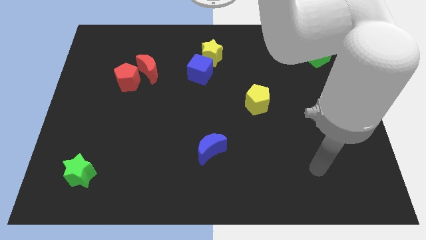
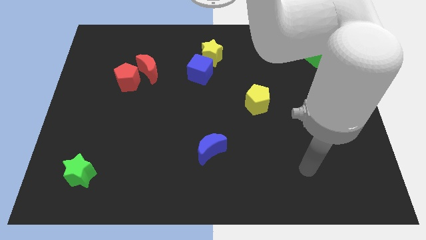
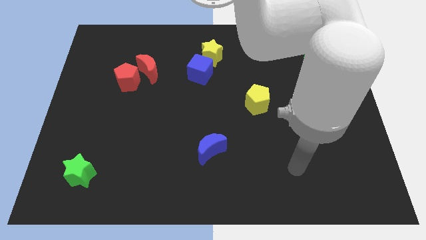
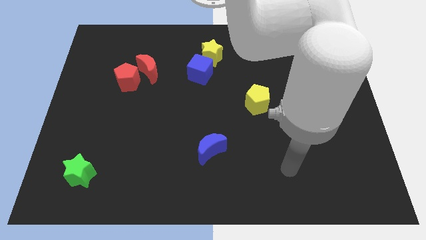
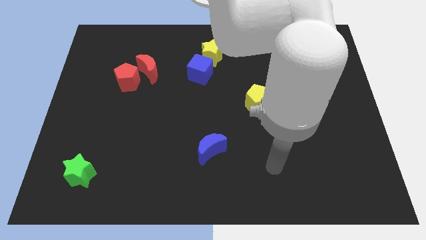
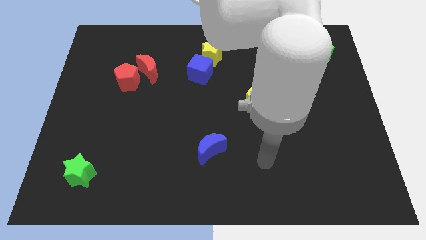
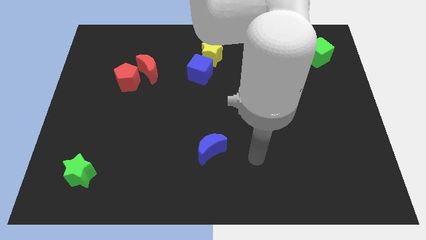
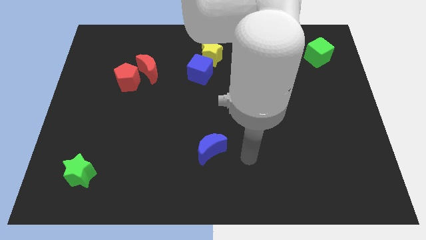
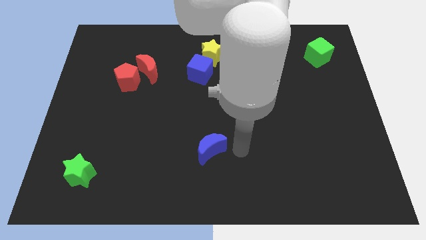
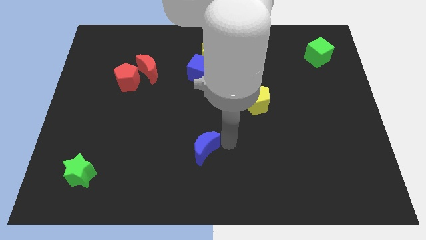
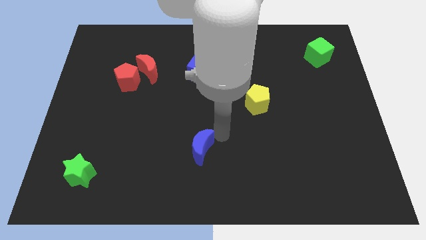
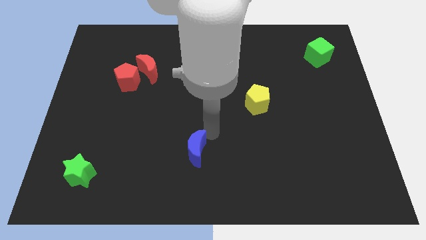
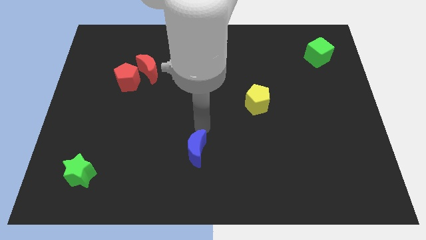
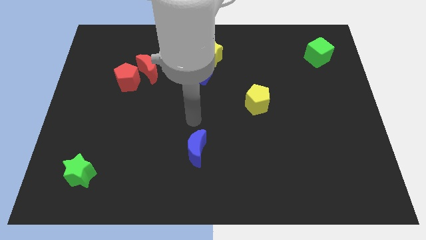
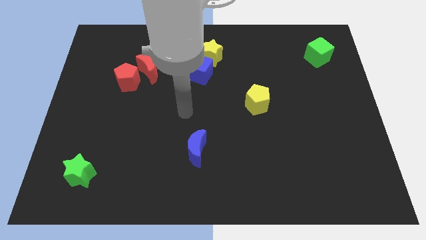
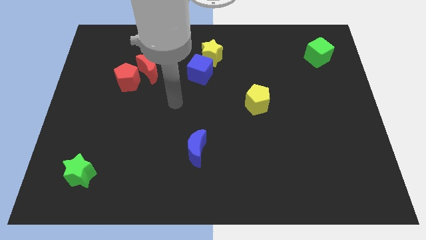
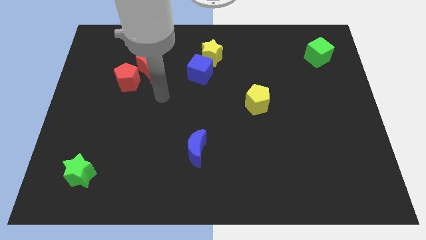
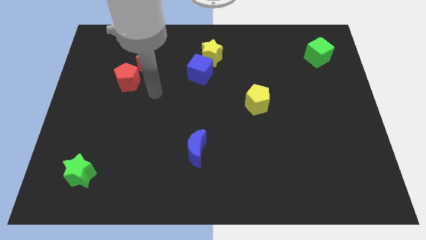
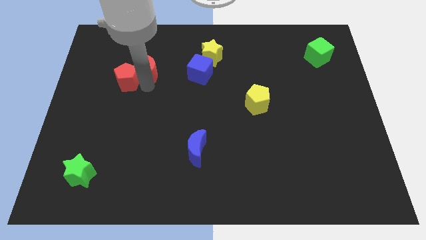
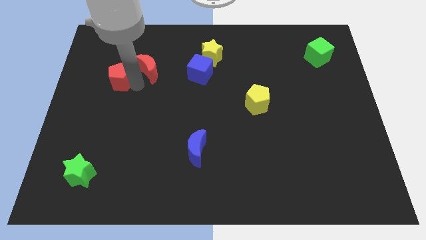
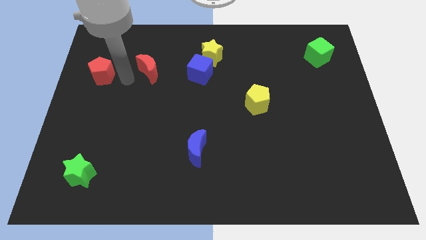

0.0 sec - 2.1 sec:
move the red moon away from the red pentagon

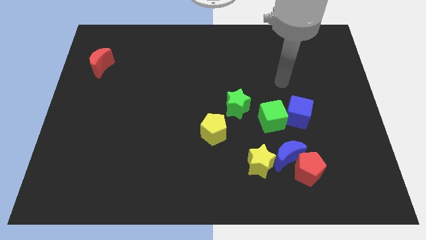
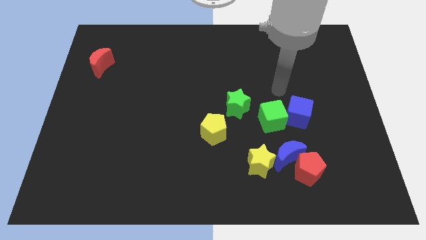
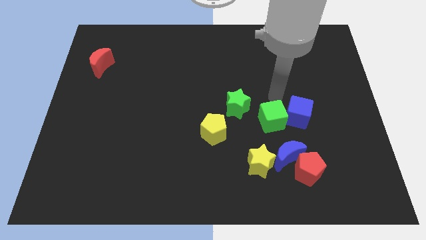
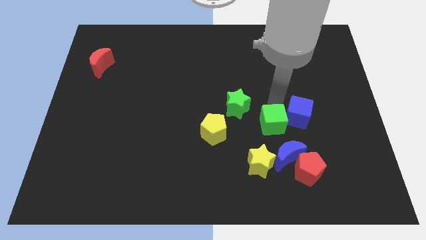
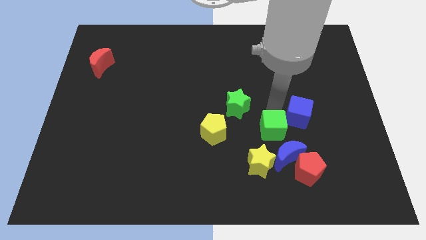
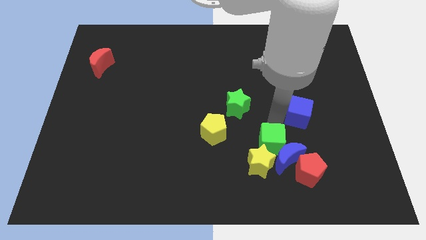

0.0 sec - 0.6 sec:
move the blue cube away from the green cube

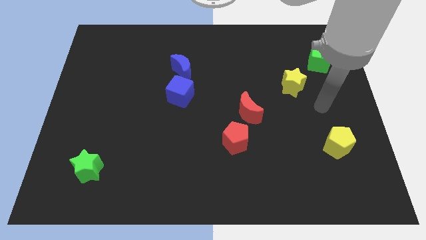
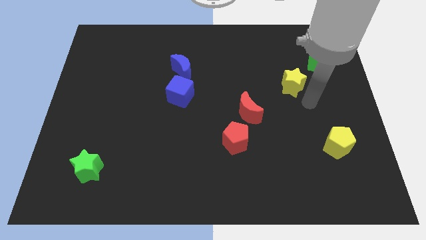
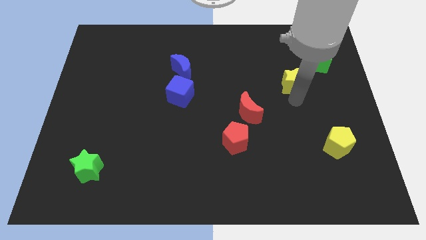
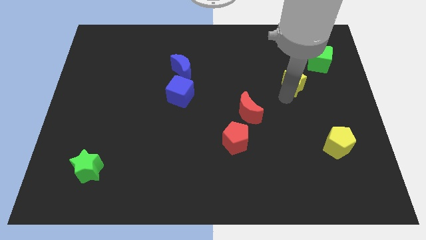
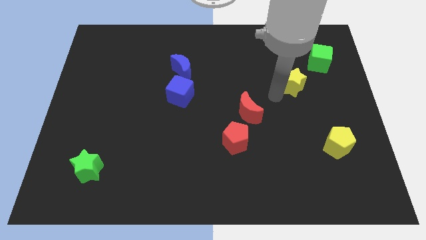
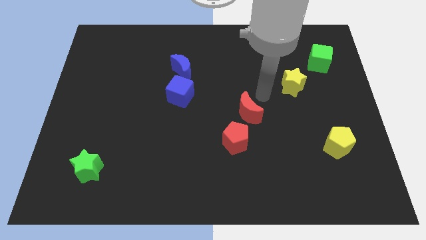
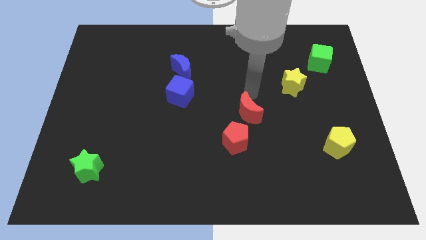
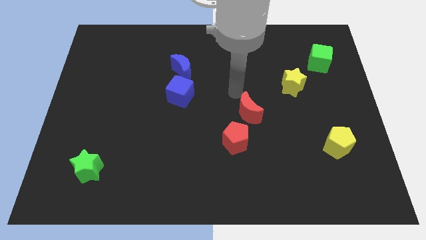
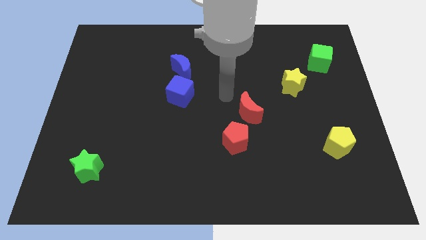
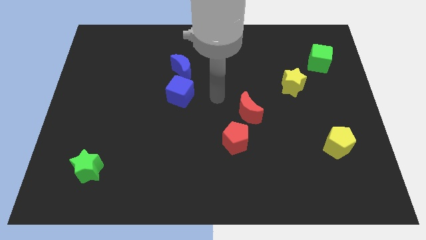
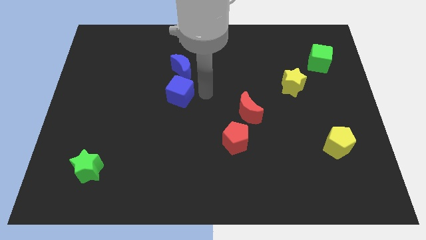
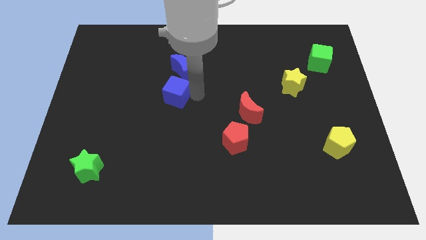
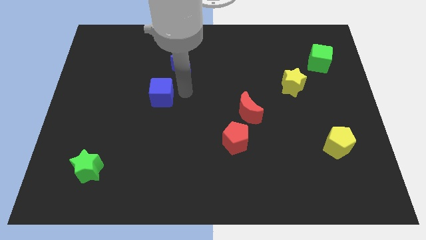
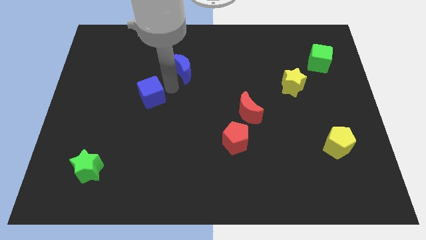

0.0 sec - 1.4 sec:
pull the blue moon apart from the blue cube

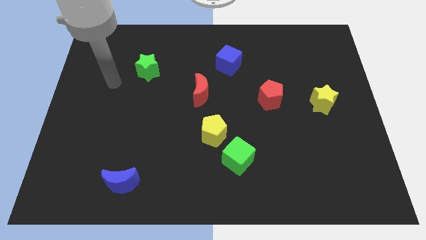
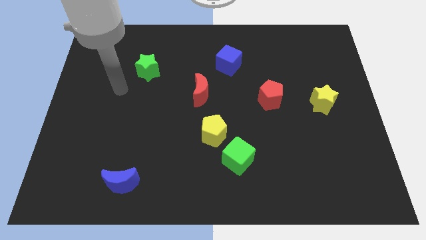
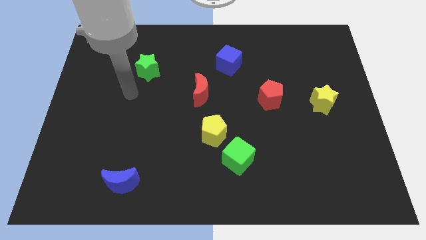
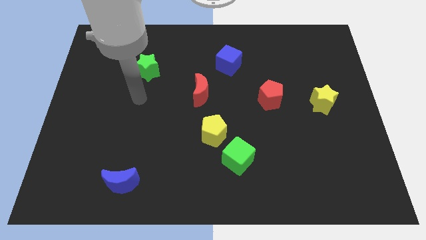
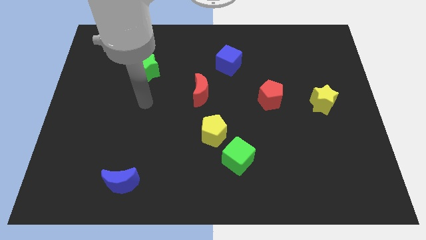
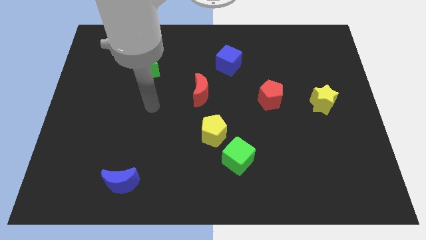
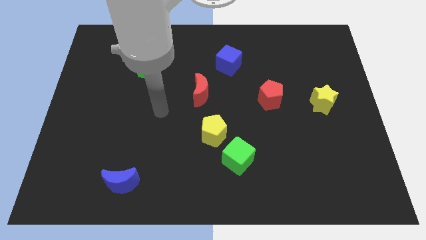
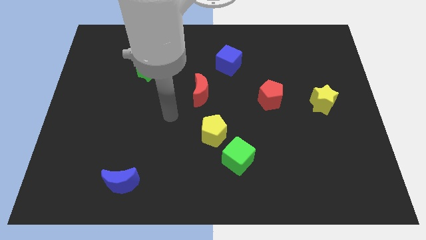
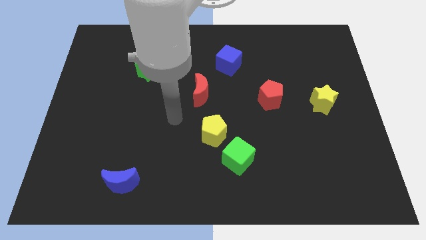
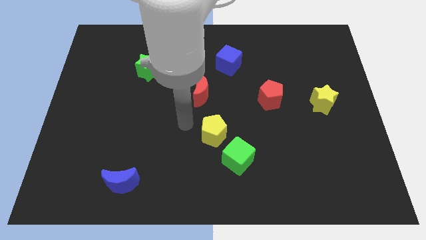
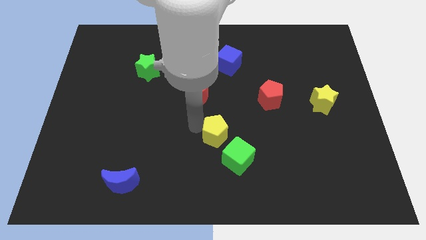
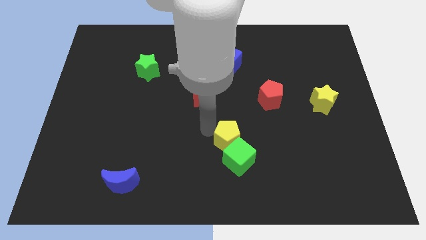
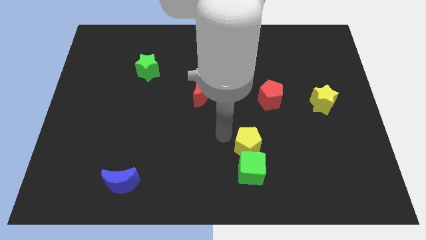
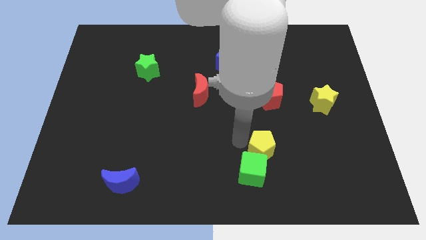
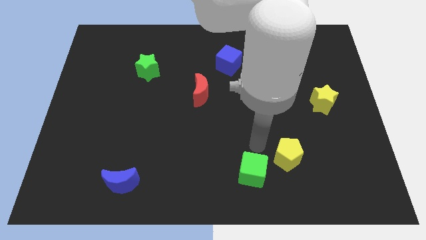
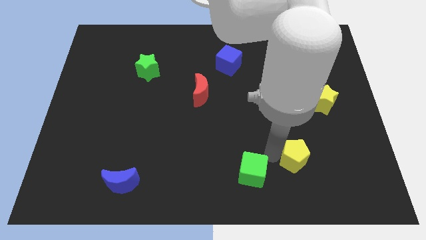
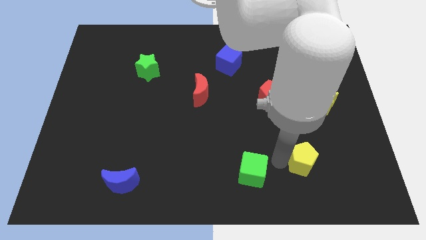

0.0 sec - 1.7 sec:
move the green cube away from the yellow pentagon

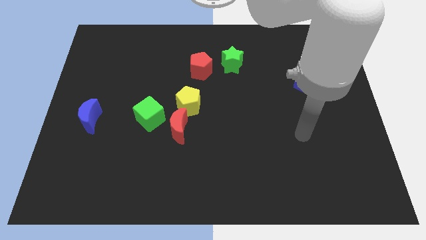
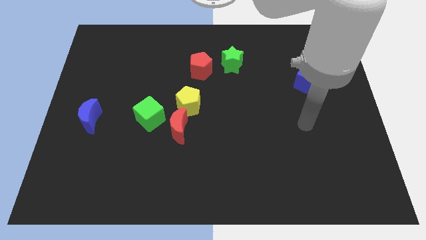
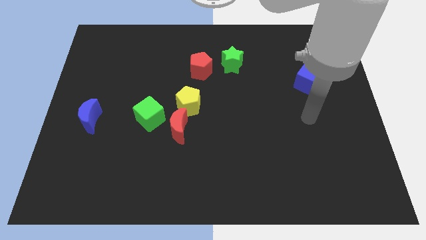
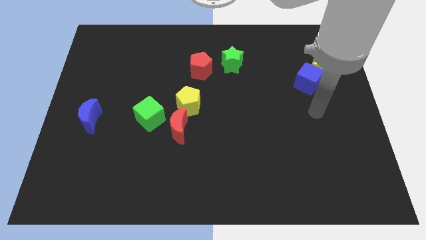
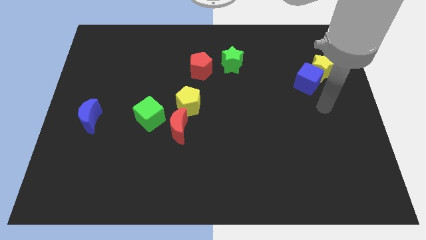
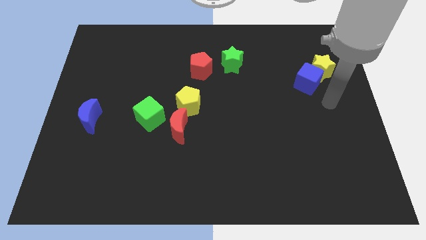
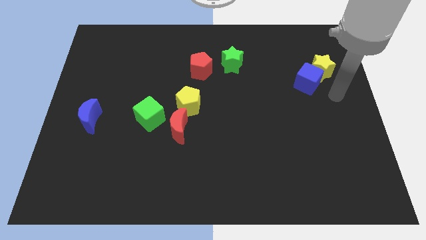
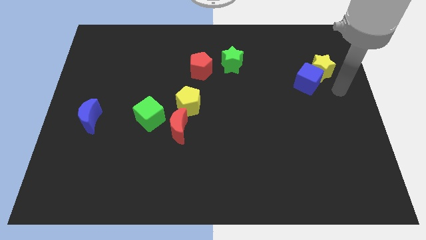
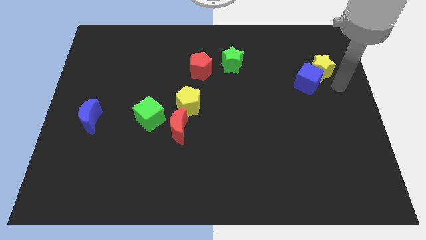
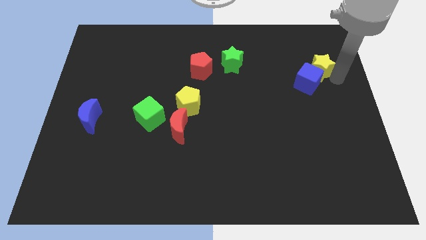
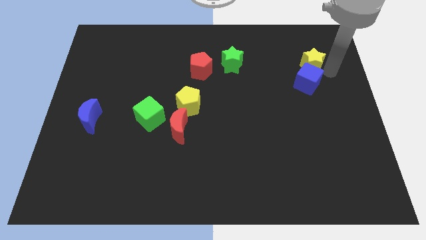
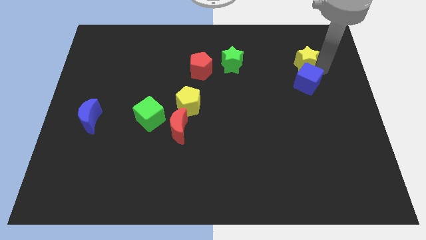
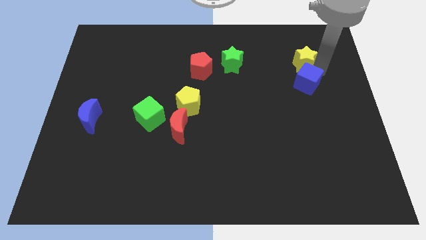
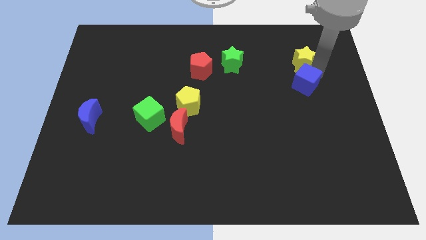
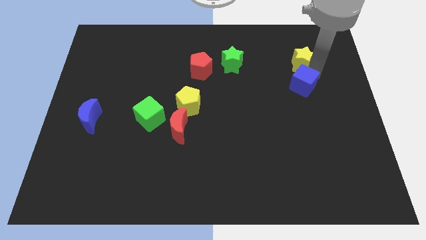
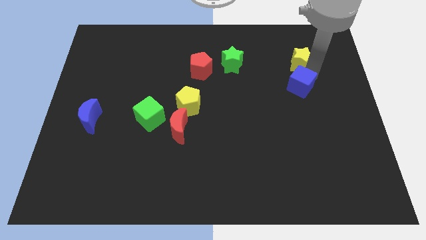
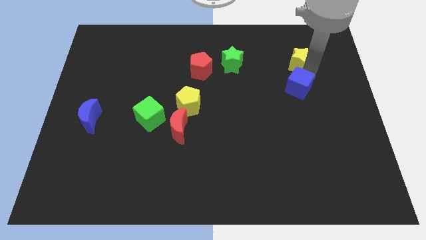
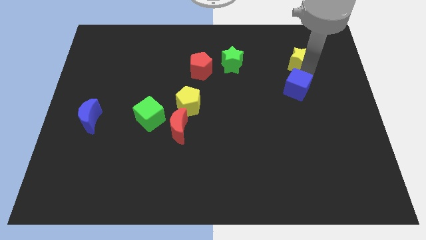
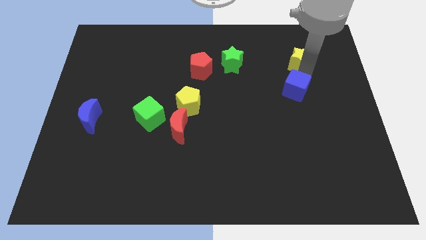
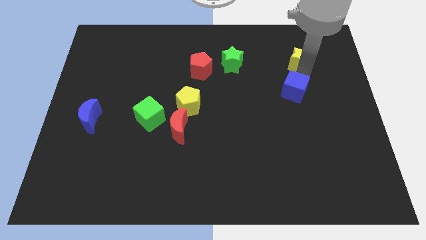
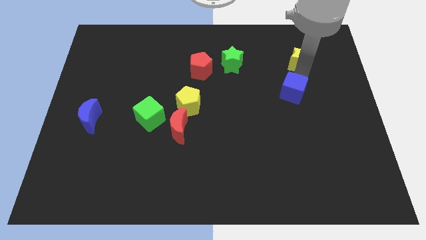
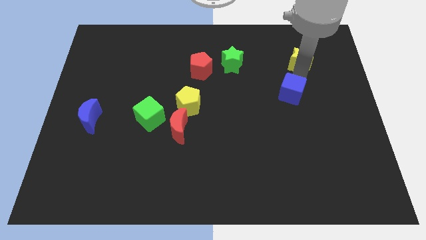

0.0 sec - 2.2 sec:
move the blue cube away from the yellow star

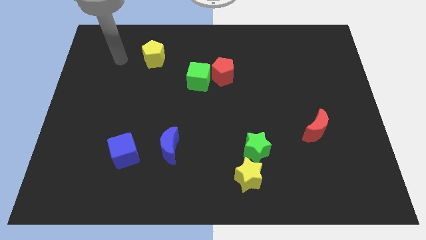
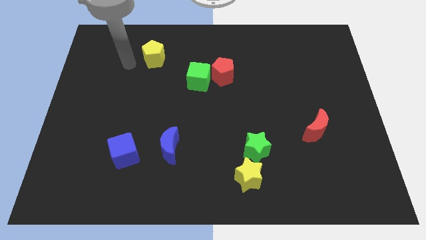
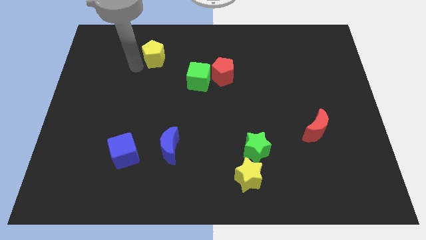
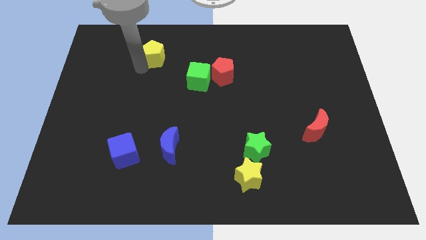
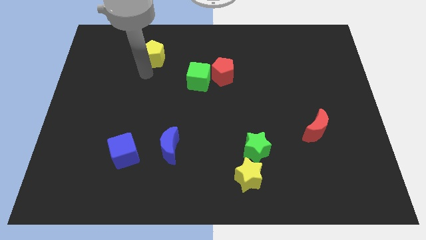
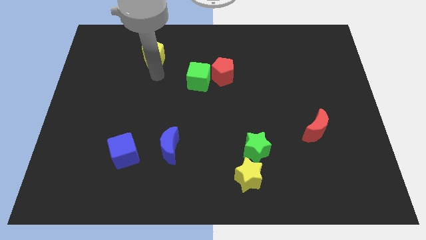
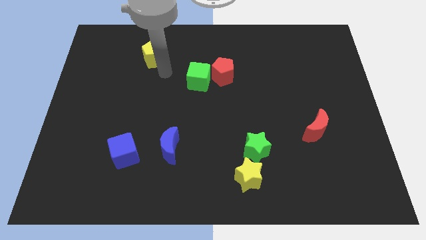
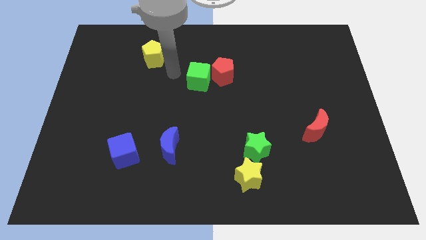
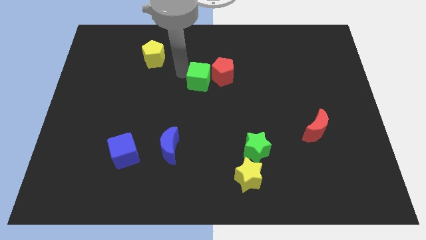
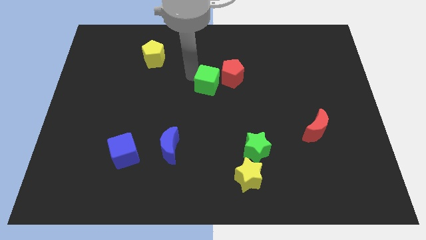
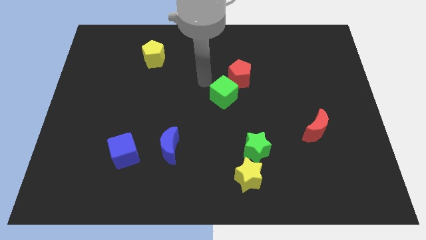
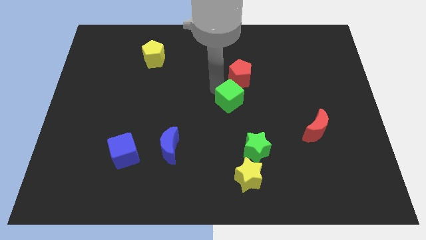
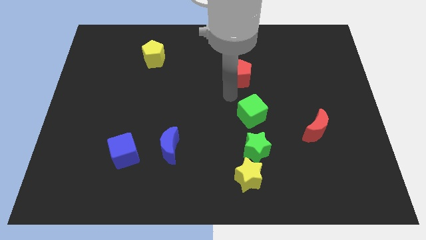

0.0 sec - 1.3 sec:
move the red pentagon away from the green cube
